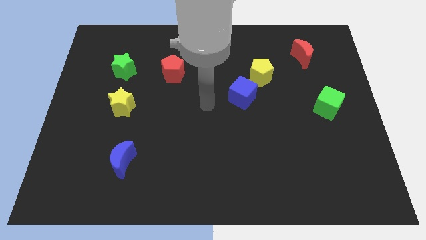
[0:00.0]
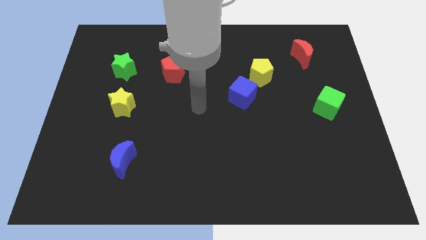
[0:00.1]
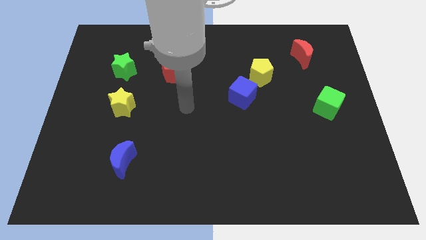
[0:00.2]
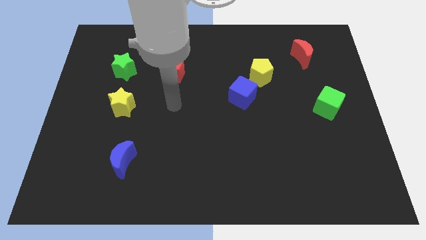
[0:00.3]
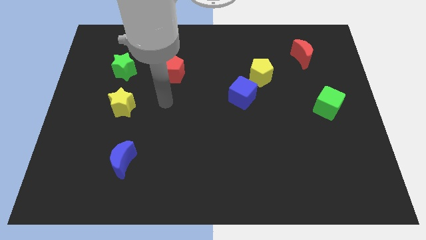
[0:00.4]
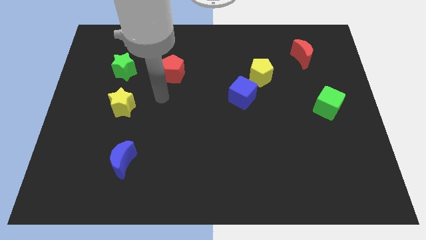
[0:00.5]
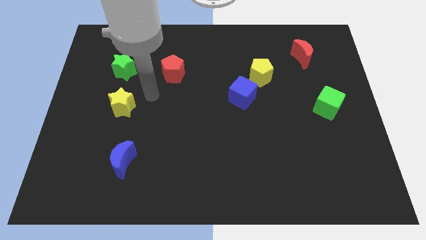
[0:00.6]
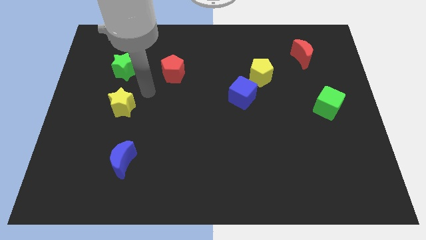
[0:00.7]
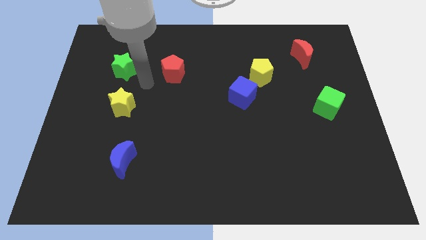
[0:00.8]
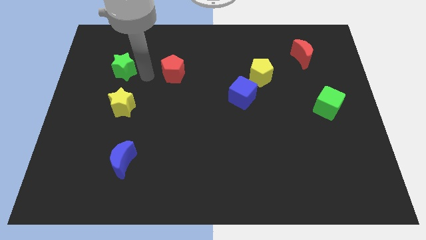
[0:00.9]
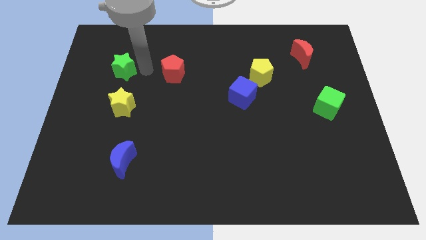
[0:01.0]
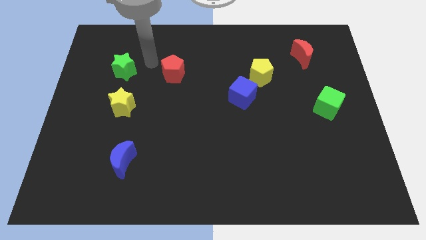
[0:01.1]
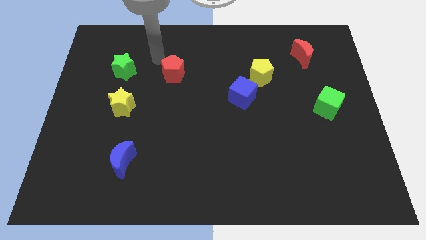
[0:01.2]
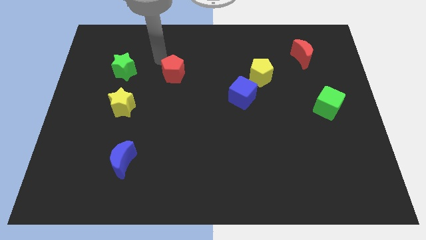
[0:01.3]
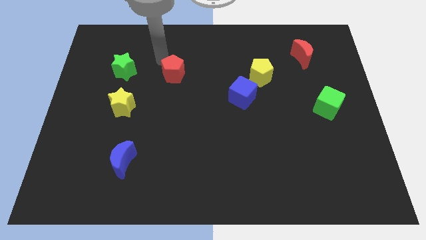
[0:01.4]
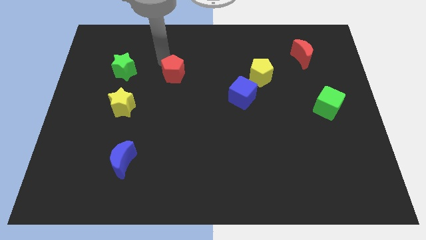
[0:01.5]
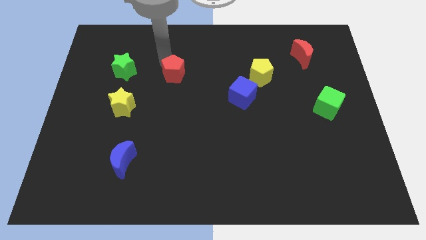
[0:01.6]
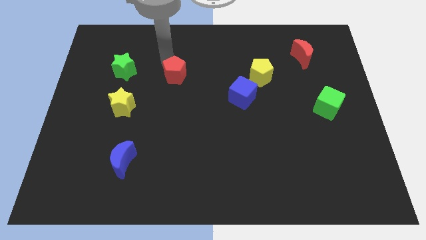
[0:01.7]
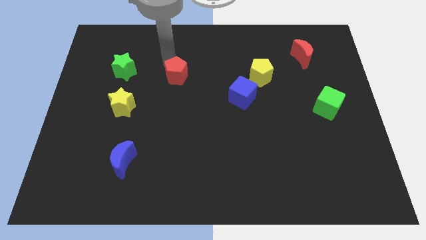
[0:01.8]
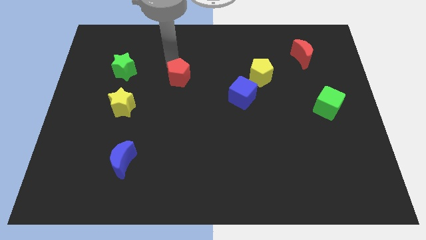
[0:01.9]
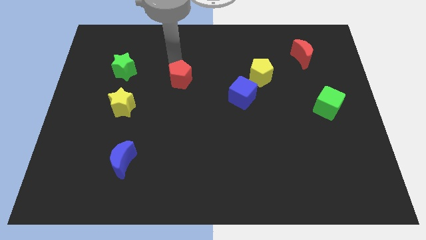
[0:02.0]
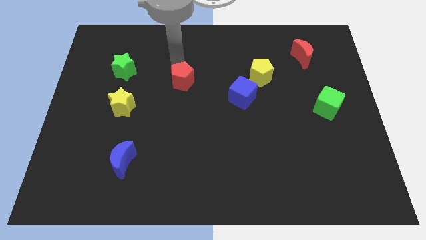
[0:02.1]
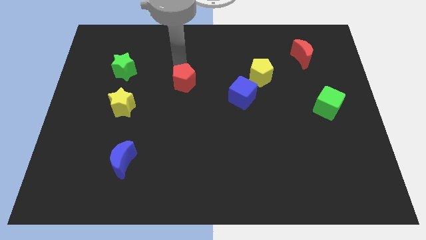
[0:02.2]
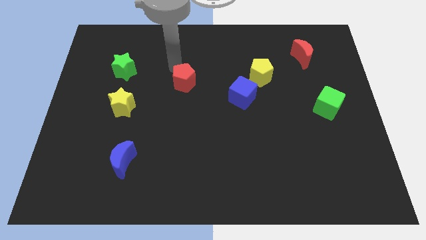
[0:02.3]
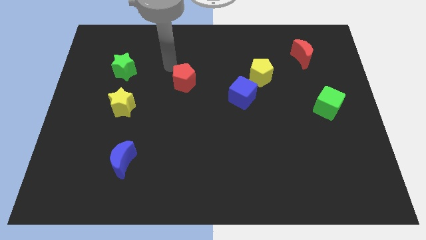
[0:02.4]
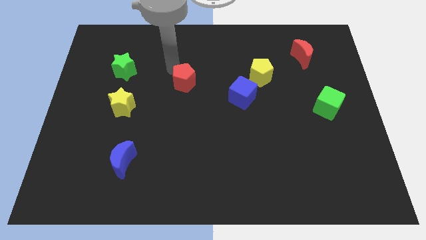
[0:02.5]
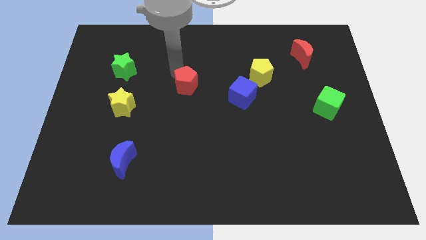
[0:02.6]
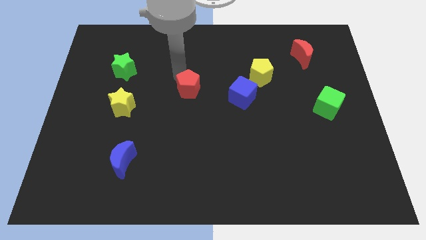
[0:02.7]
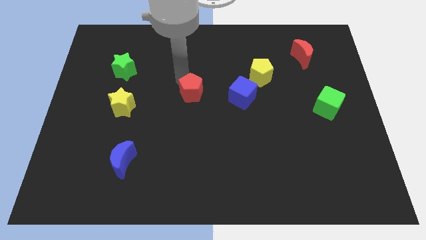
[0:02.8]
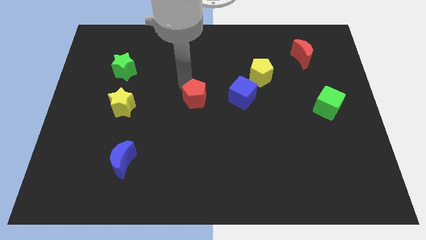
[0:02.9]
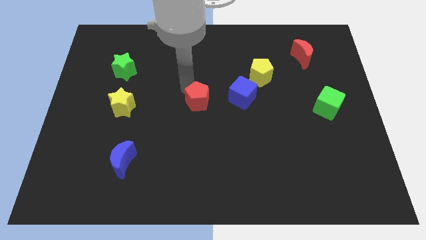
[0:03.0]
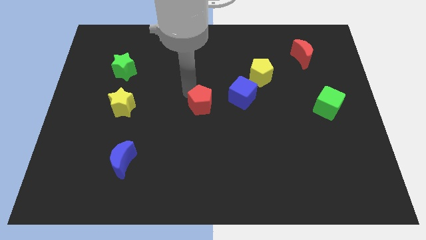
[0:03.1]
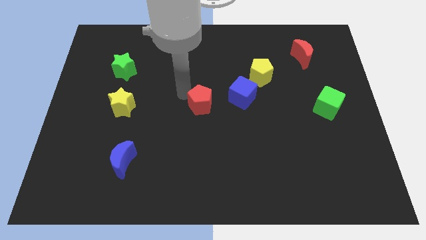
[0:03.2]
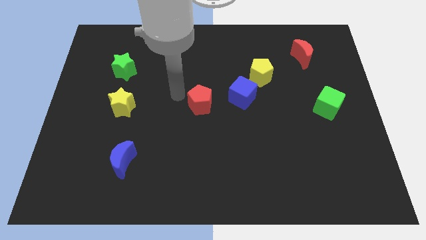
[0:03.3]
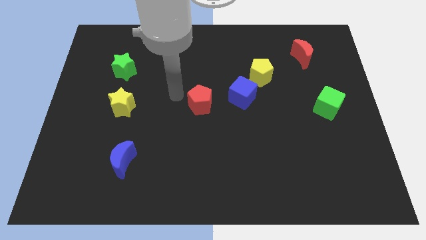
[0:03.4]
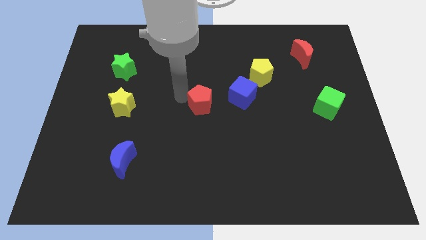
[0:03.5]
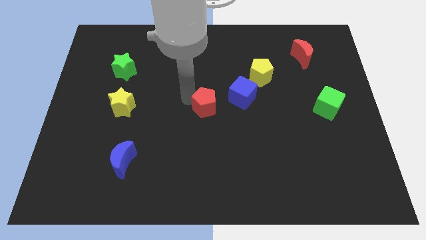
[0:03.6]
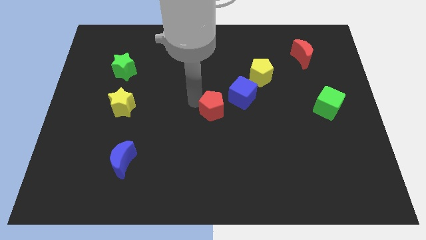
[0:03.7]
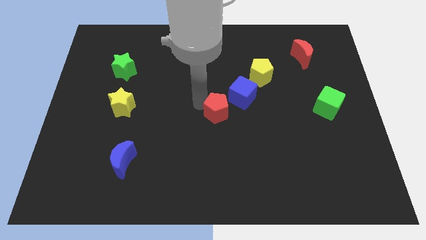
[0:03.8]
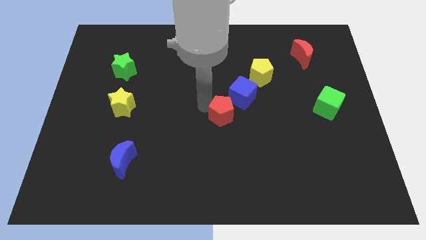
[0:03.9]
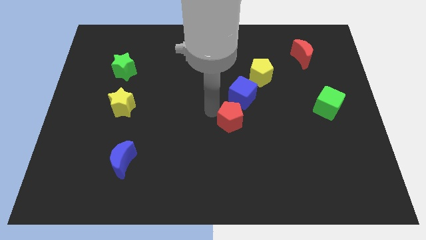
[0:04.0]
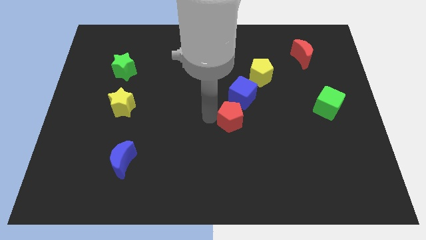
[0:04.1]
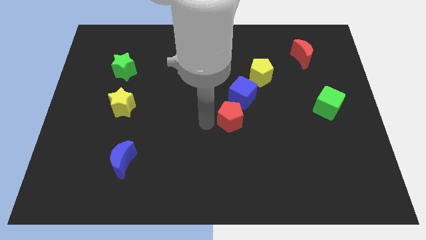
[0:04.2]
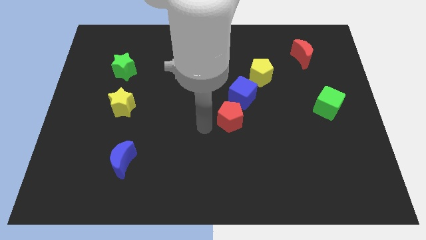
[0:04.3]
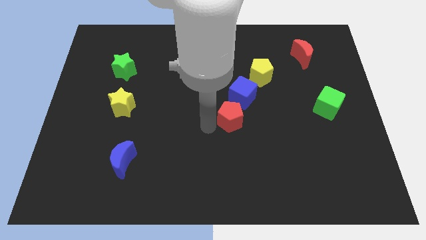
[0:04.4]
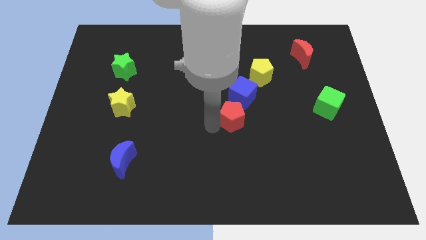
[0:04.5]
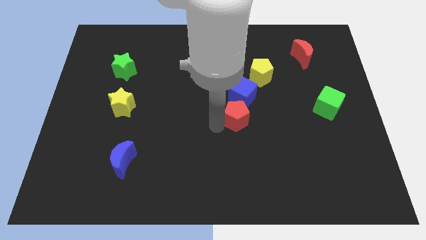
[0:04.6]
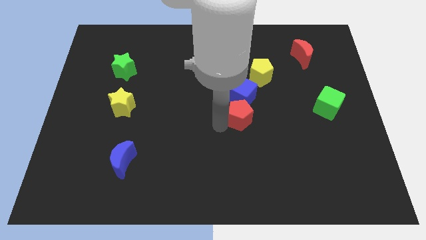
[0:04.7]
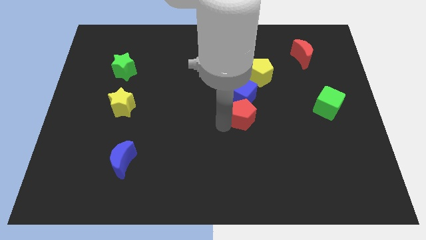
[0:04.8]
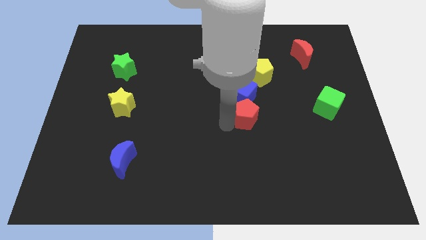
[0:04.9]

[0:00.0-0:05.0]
put the red pentagon to the bottom of the yellow pentagon

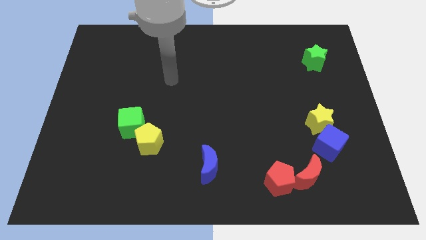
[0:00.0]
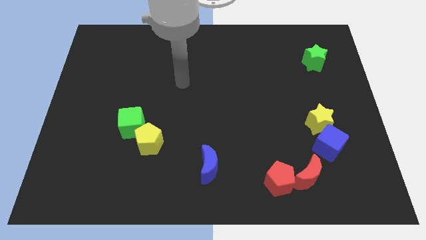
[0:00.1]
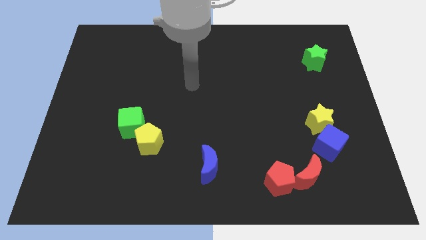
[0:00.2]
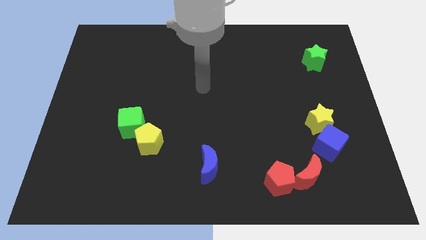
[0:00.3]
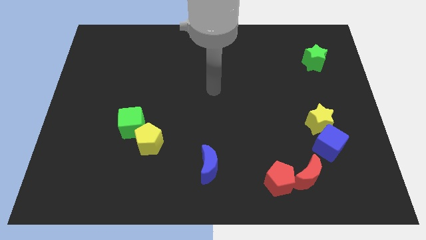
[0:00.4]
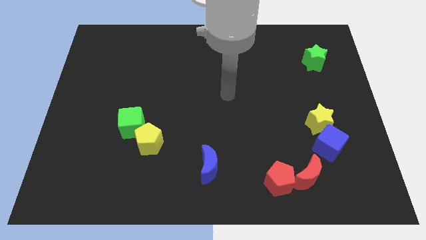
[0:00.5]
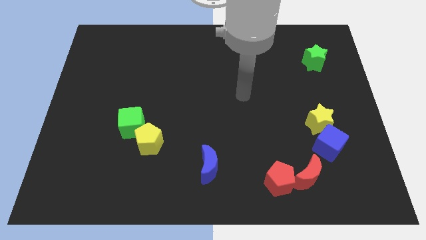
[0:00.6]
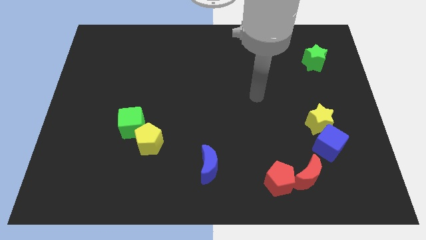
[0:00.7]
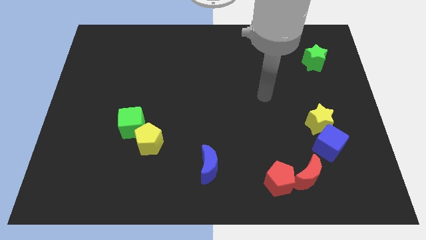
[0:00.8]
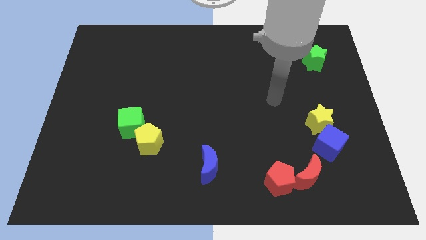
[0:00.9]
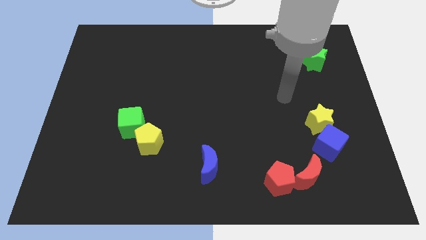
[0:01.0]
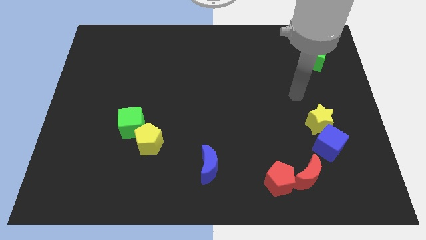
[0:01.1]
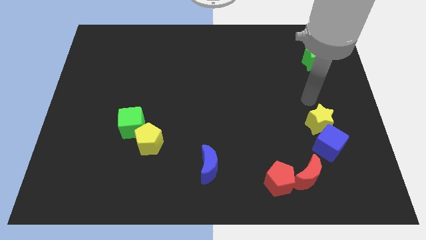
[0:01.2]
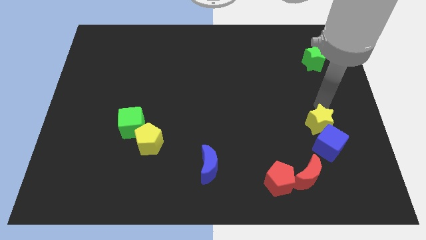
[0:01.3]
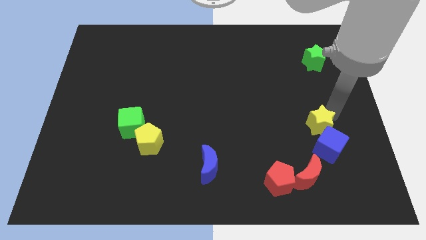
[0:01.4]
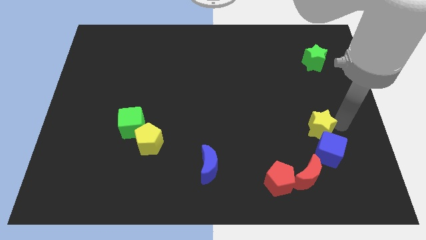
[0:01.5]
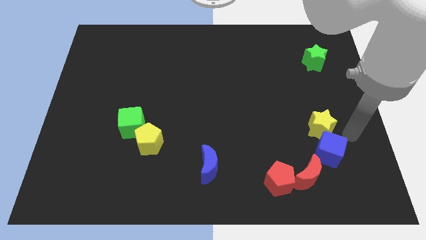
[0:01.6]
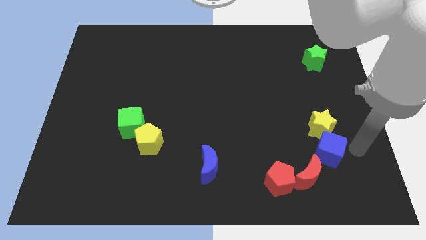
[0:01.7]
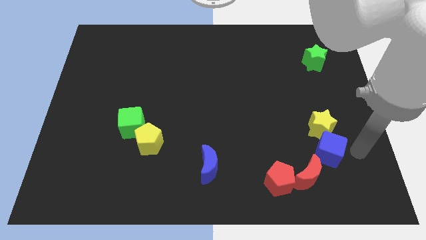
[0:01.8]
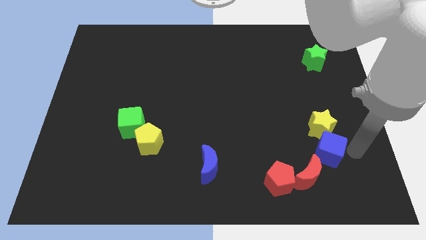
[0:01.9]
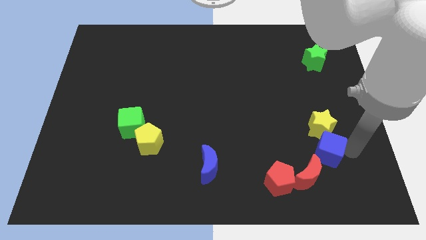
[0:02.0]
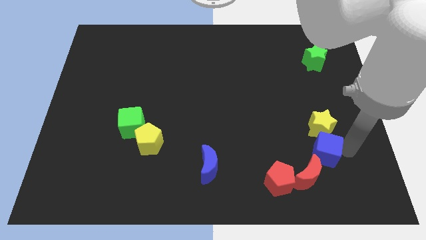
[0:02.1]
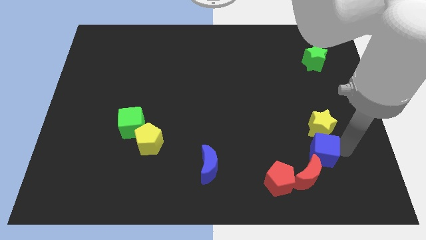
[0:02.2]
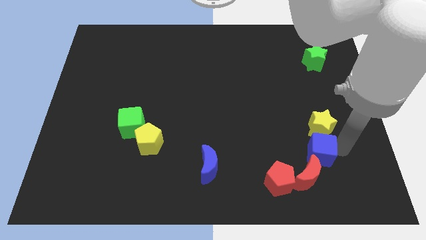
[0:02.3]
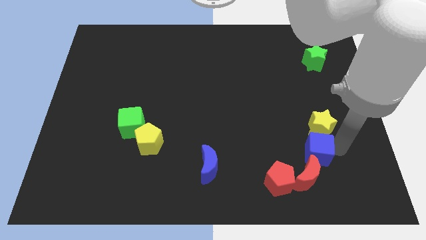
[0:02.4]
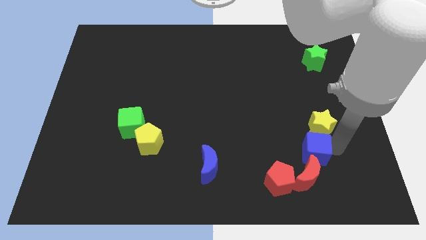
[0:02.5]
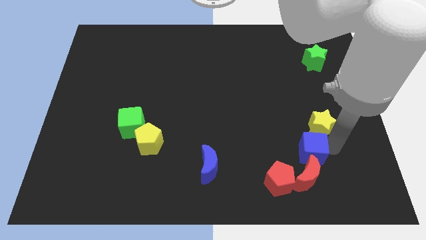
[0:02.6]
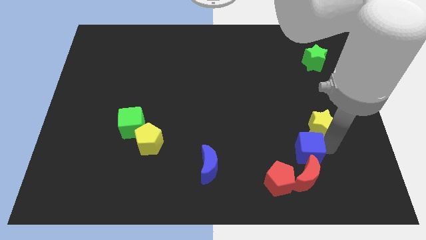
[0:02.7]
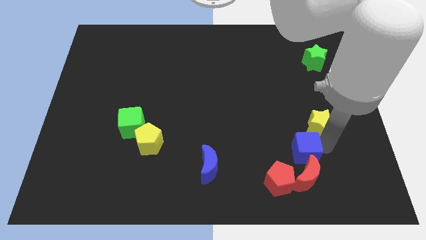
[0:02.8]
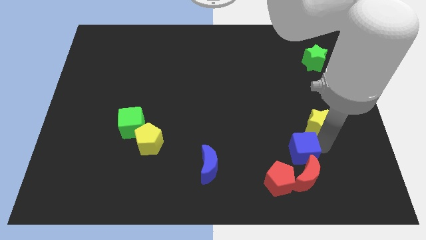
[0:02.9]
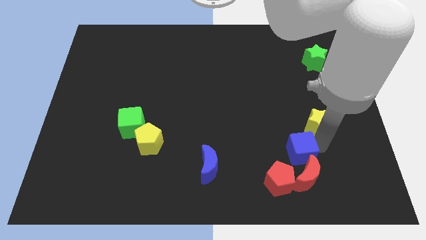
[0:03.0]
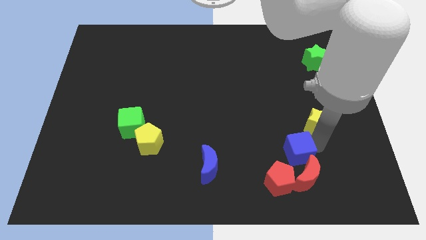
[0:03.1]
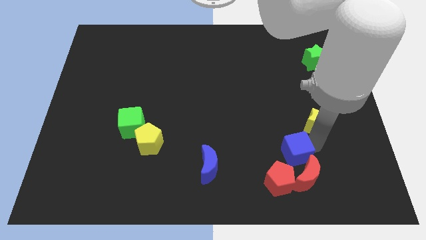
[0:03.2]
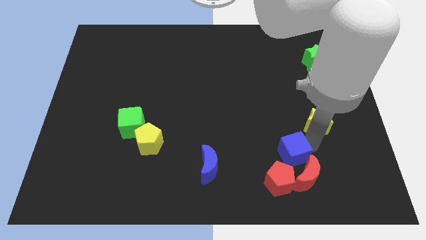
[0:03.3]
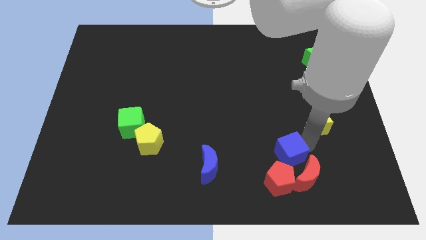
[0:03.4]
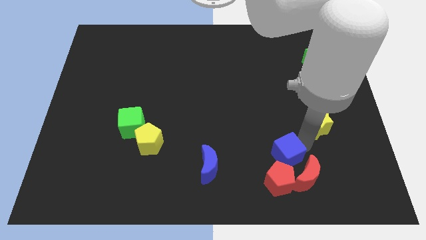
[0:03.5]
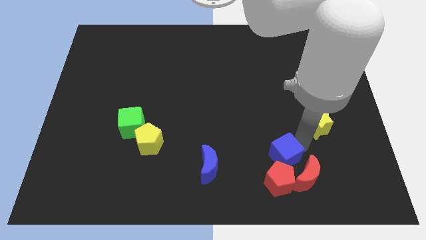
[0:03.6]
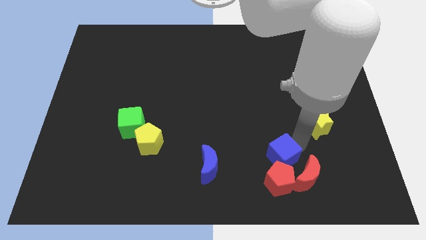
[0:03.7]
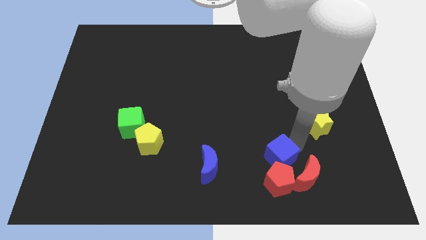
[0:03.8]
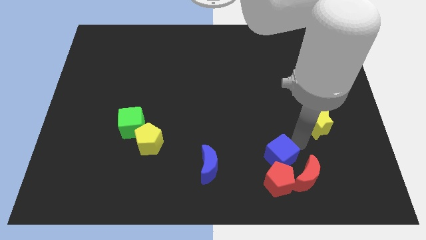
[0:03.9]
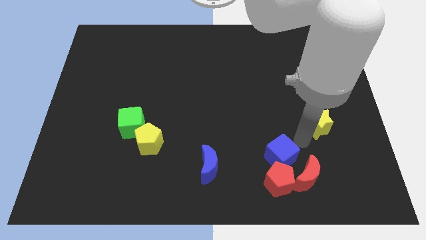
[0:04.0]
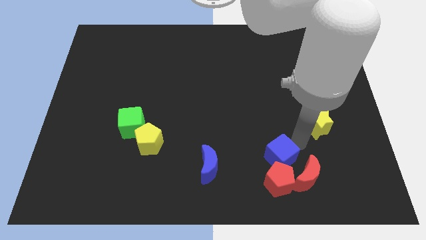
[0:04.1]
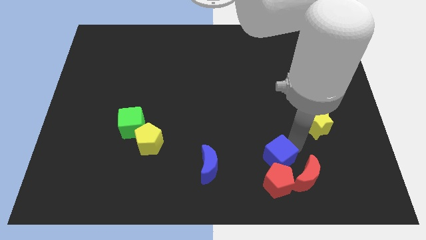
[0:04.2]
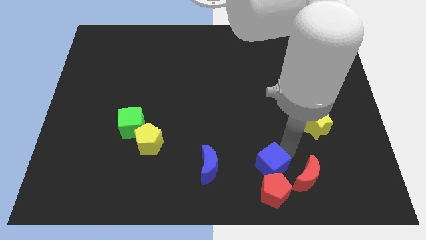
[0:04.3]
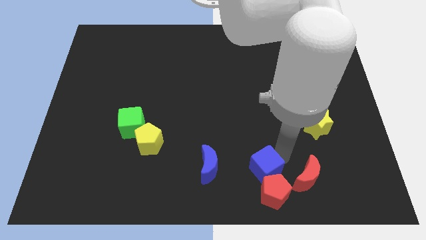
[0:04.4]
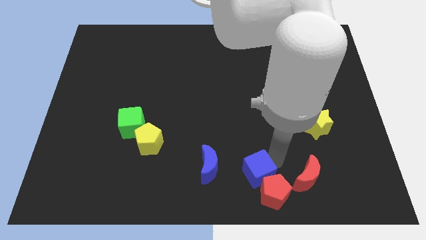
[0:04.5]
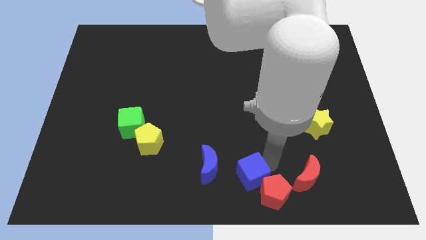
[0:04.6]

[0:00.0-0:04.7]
move the blue cube to the left of the red pentagon
